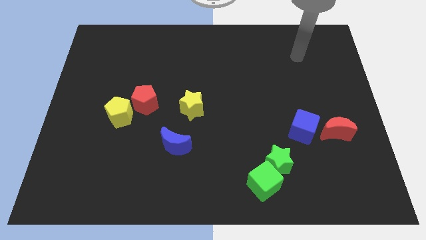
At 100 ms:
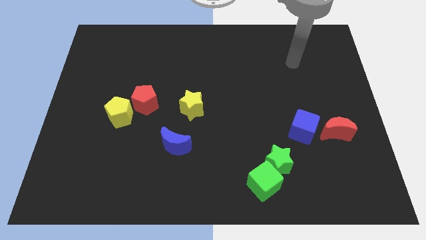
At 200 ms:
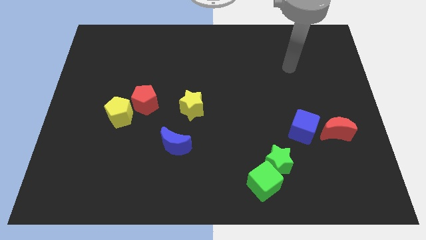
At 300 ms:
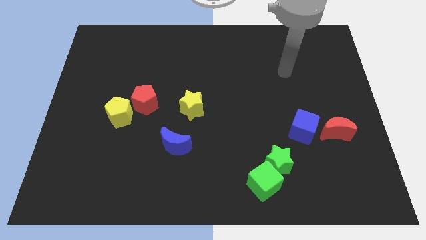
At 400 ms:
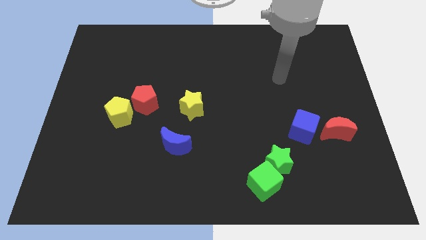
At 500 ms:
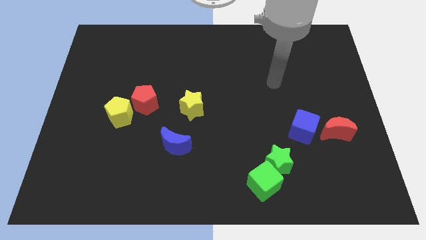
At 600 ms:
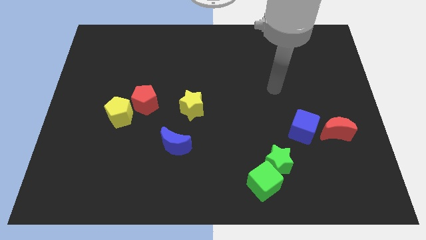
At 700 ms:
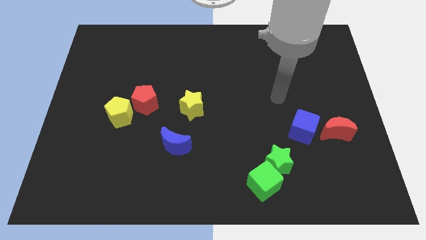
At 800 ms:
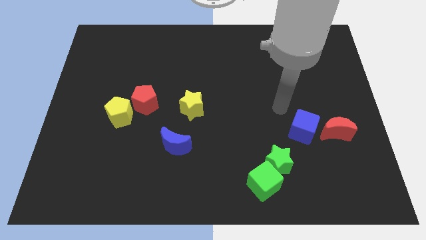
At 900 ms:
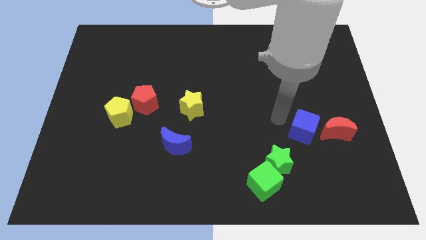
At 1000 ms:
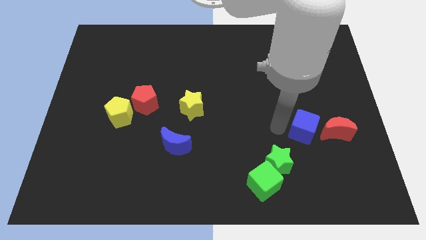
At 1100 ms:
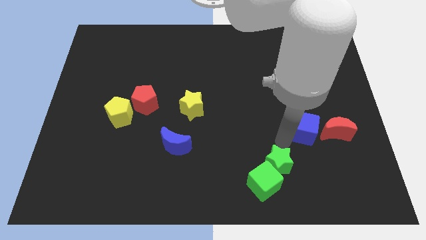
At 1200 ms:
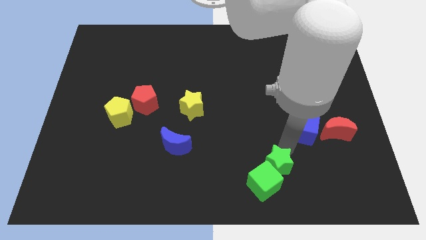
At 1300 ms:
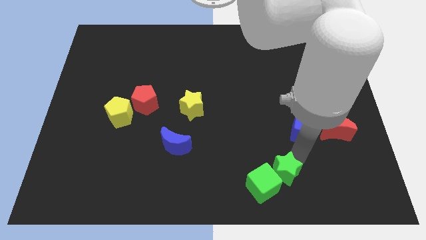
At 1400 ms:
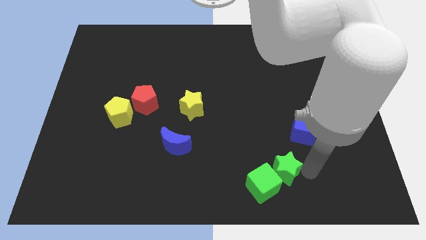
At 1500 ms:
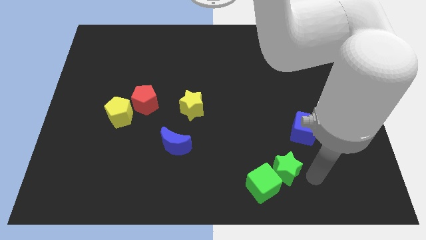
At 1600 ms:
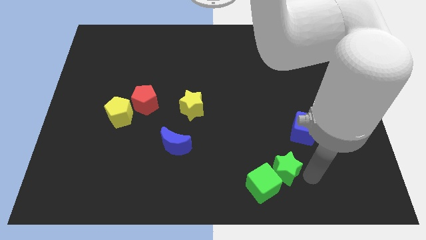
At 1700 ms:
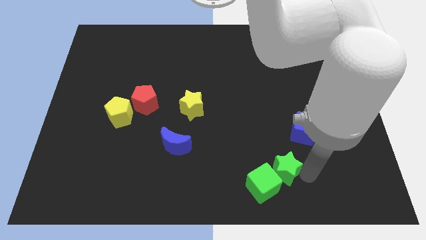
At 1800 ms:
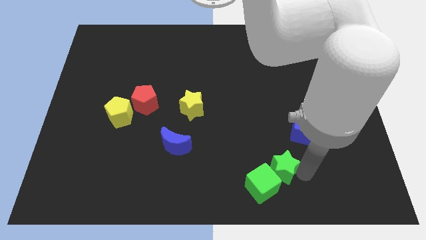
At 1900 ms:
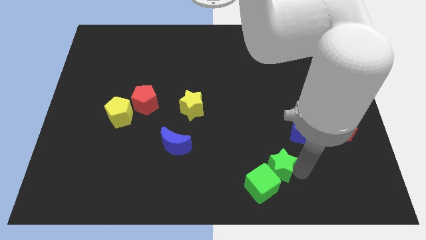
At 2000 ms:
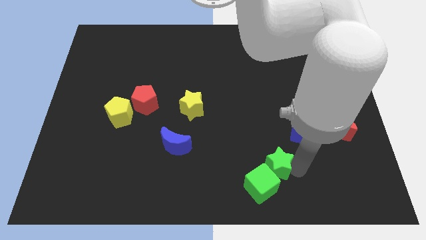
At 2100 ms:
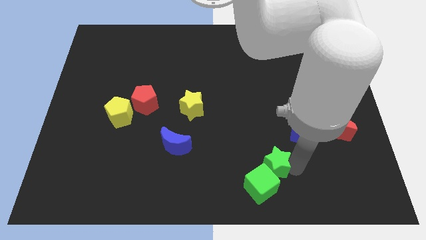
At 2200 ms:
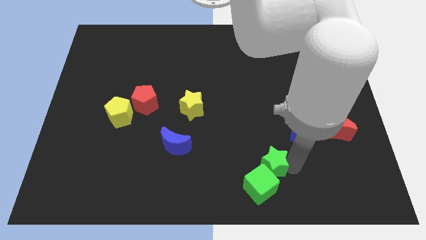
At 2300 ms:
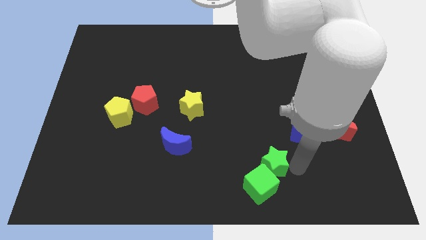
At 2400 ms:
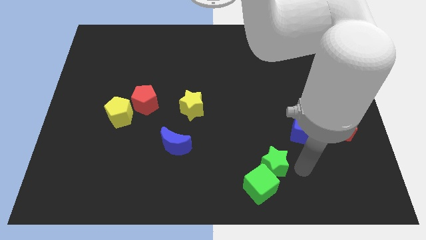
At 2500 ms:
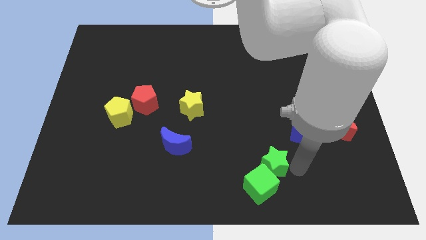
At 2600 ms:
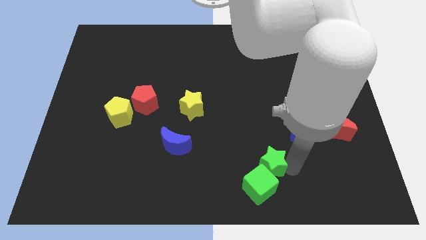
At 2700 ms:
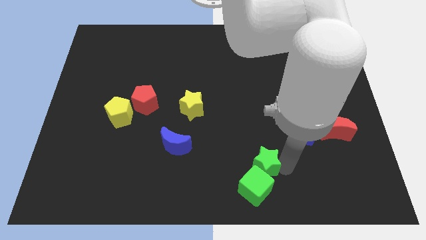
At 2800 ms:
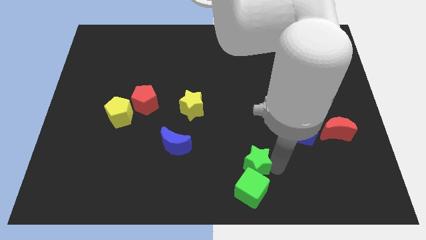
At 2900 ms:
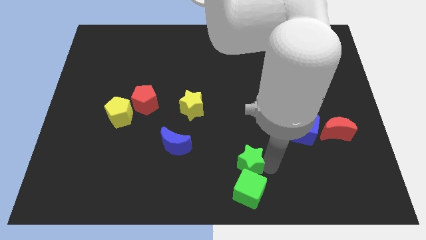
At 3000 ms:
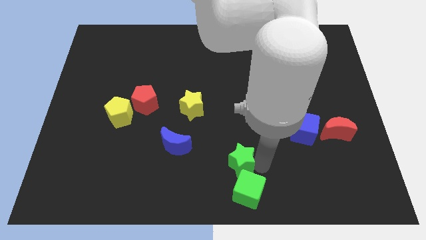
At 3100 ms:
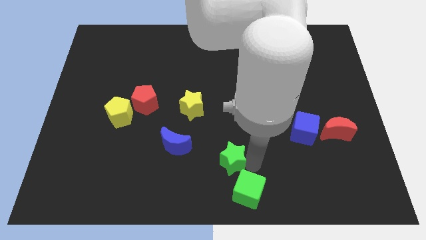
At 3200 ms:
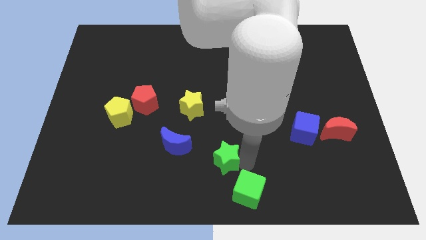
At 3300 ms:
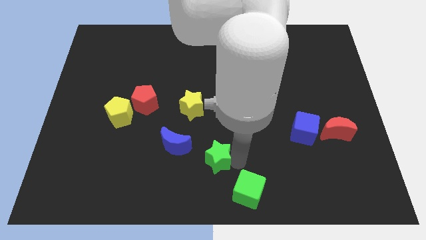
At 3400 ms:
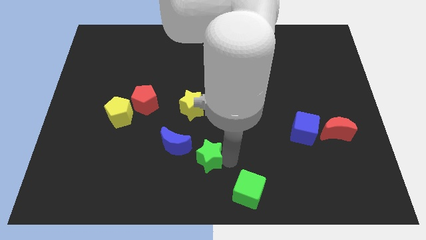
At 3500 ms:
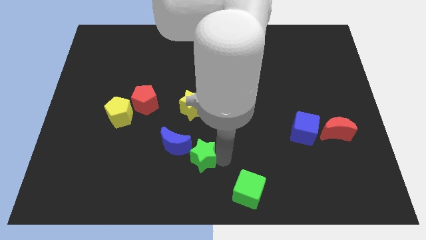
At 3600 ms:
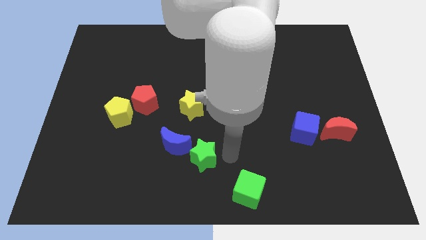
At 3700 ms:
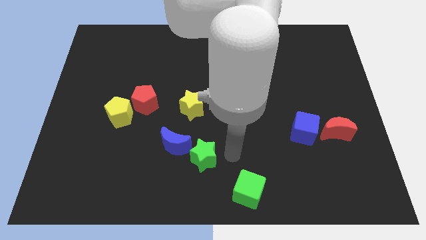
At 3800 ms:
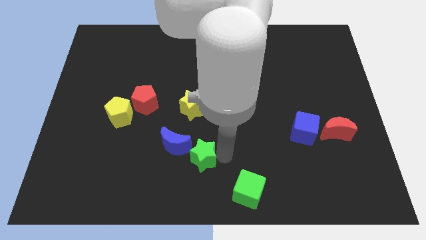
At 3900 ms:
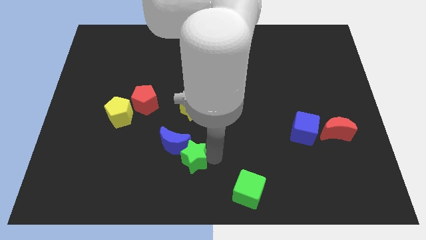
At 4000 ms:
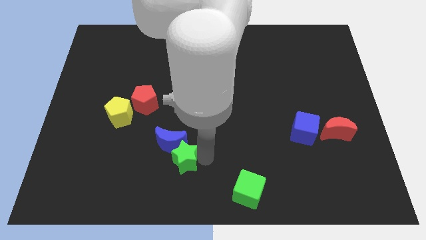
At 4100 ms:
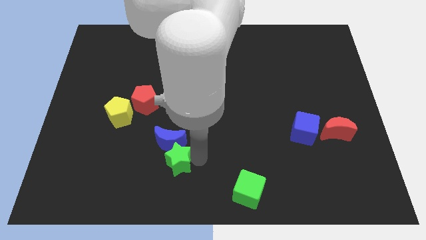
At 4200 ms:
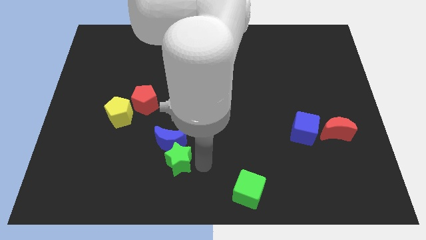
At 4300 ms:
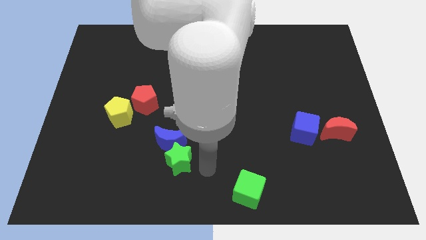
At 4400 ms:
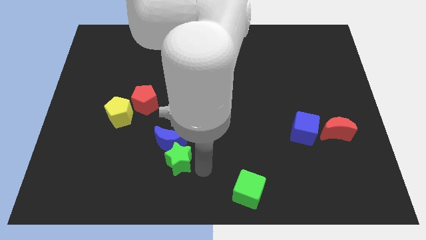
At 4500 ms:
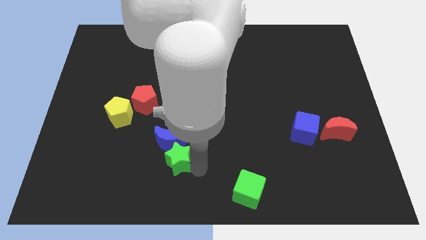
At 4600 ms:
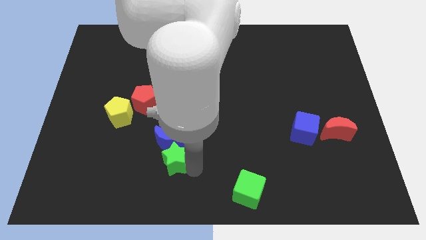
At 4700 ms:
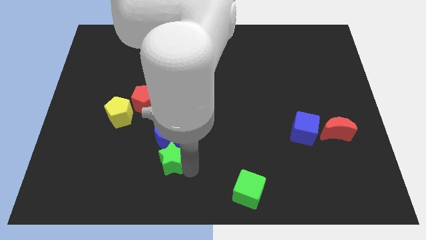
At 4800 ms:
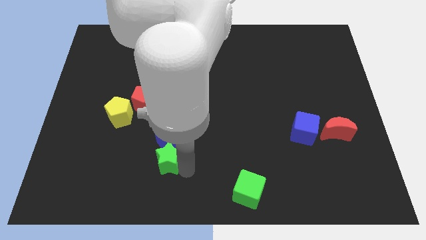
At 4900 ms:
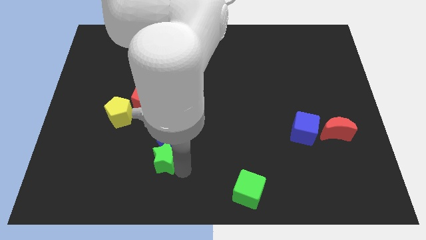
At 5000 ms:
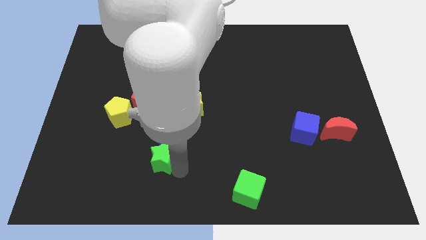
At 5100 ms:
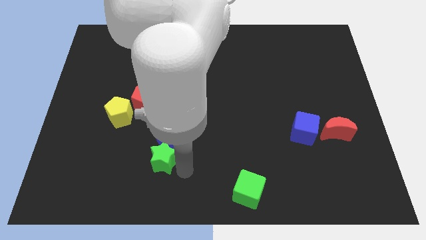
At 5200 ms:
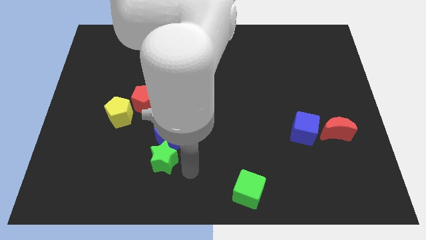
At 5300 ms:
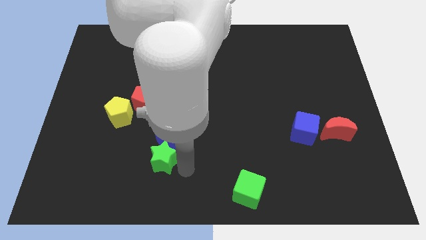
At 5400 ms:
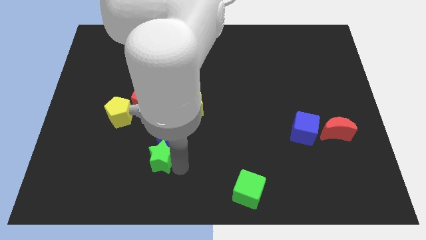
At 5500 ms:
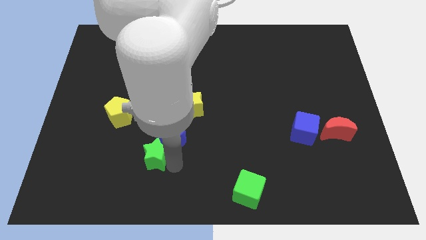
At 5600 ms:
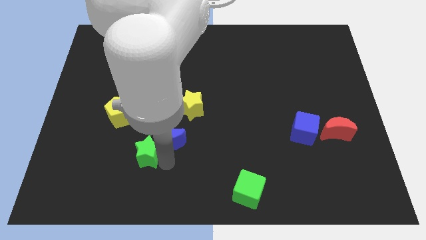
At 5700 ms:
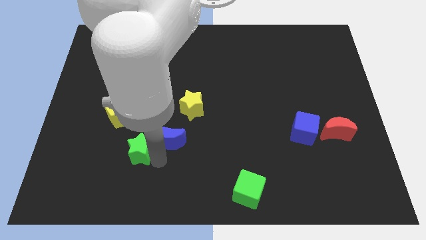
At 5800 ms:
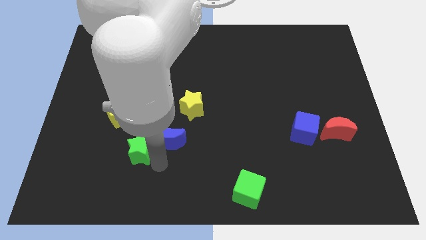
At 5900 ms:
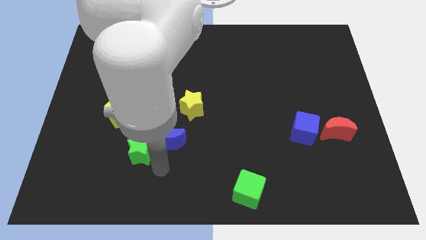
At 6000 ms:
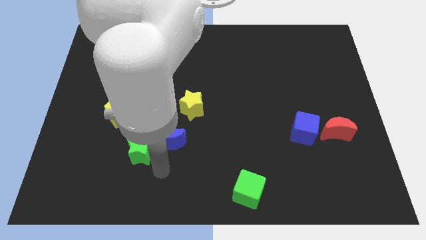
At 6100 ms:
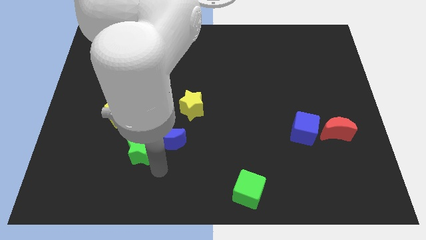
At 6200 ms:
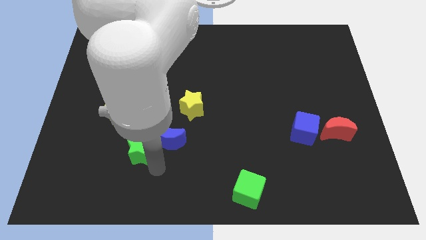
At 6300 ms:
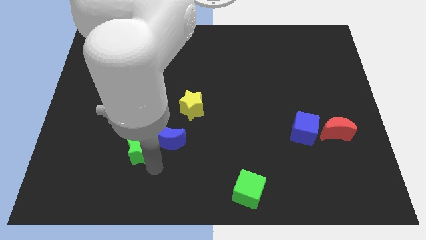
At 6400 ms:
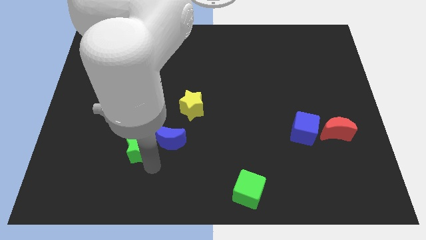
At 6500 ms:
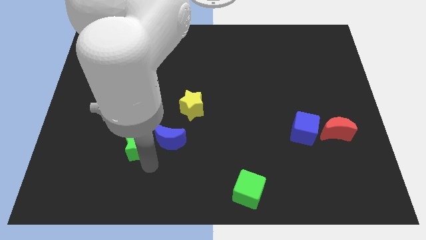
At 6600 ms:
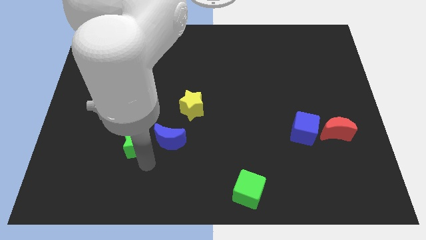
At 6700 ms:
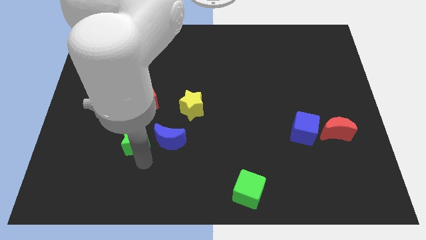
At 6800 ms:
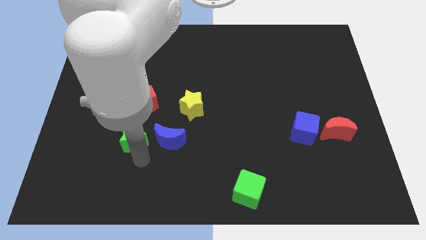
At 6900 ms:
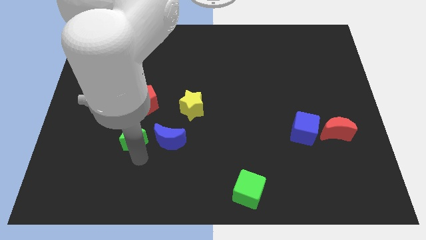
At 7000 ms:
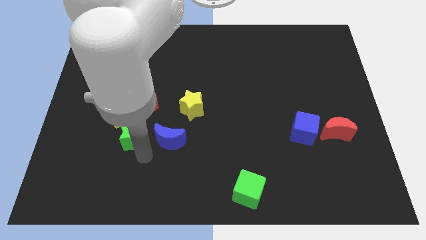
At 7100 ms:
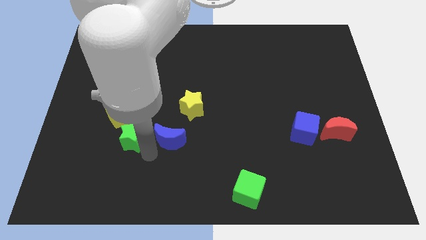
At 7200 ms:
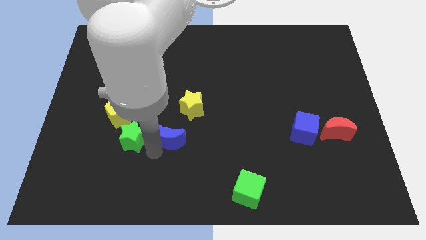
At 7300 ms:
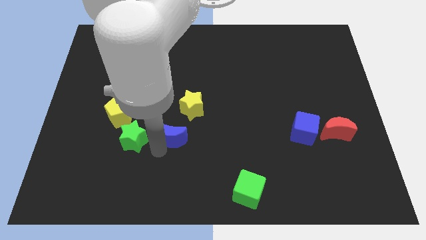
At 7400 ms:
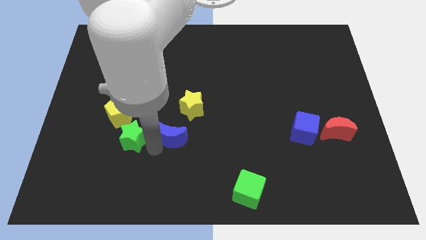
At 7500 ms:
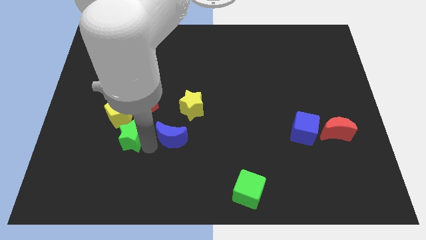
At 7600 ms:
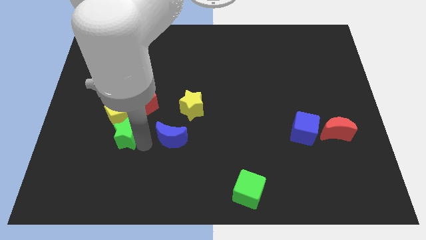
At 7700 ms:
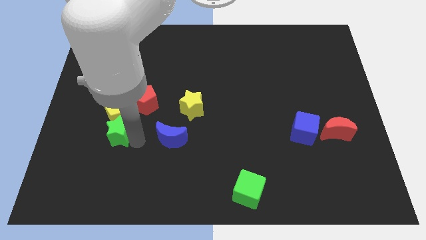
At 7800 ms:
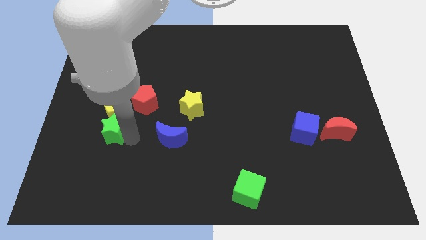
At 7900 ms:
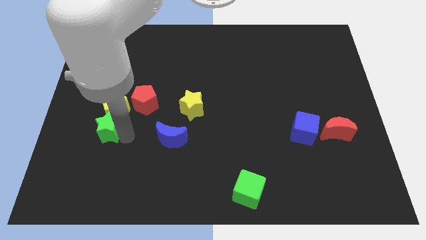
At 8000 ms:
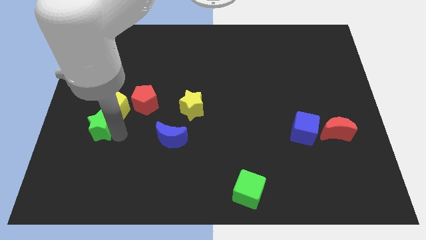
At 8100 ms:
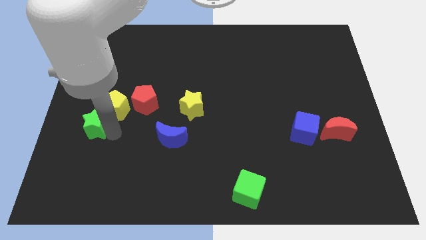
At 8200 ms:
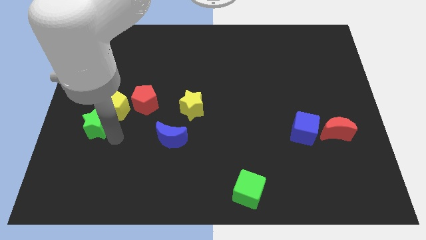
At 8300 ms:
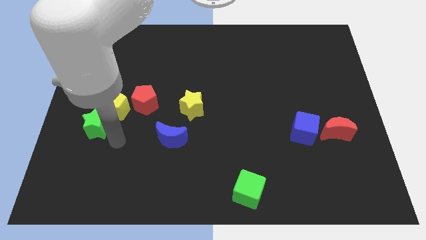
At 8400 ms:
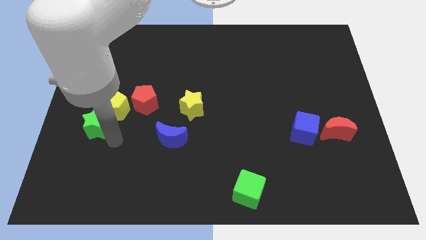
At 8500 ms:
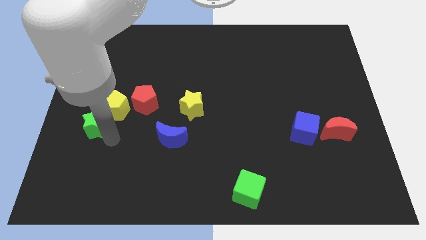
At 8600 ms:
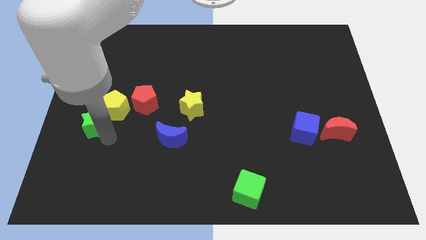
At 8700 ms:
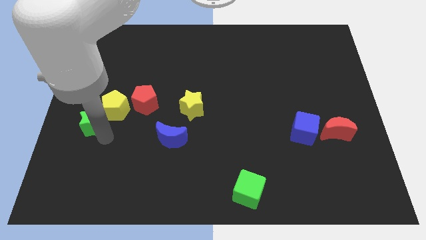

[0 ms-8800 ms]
slide the green star to the left side of the board
